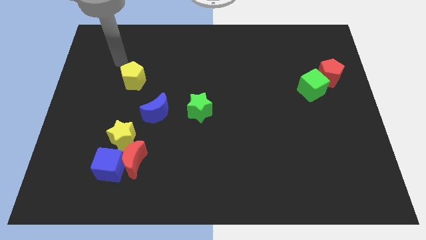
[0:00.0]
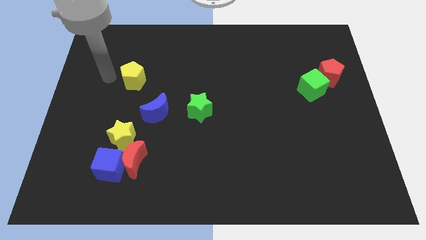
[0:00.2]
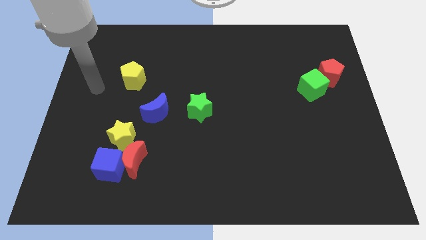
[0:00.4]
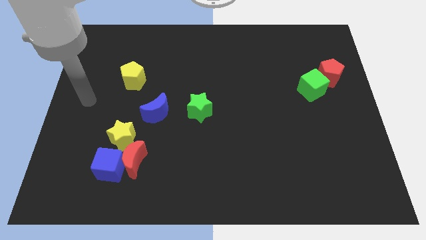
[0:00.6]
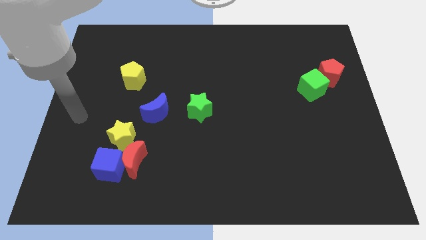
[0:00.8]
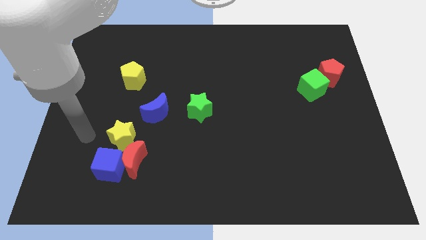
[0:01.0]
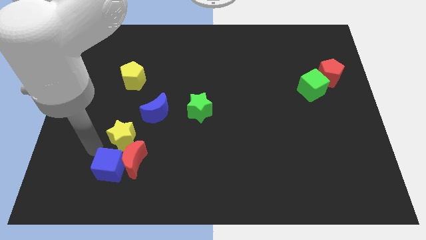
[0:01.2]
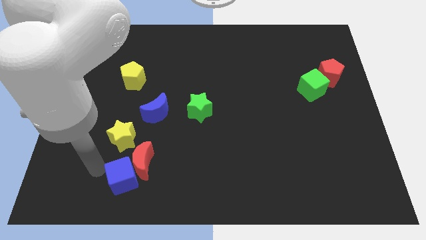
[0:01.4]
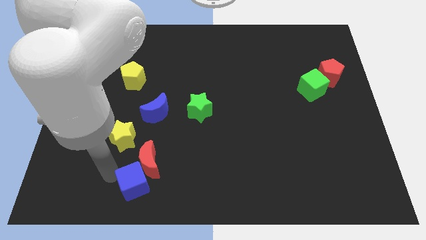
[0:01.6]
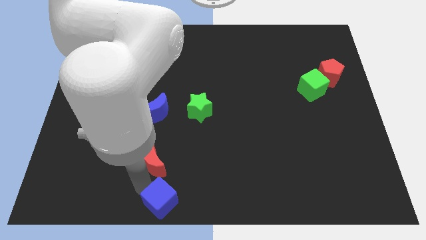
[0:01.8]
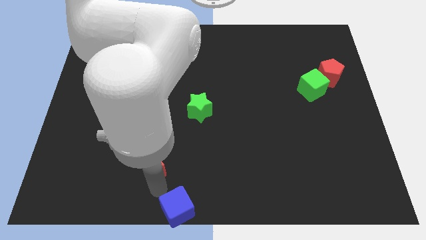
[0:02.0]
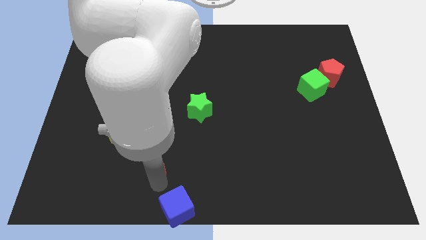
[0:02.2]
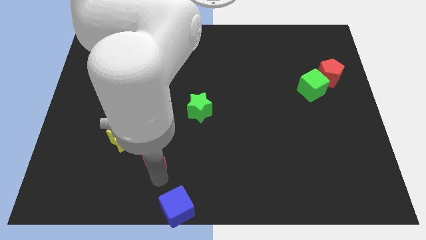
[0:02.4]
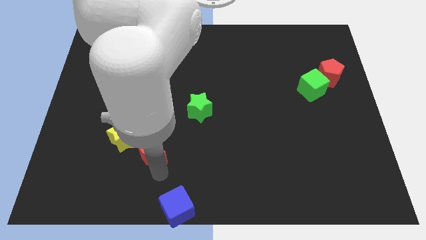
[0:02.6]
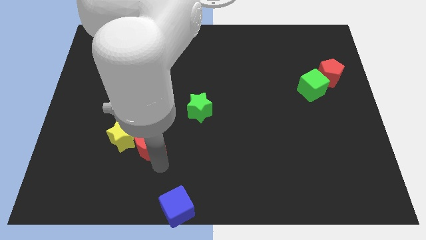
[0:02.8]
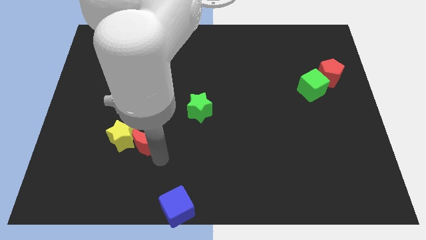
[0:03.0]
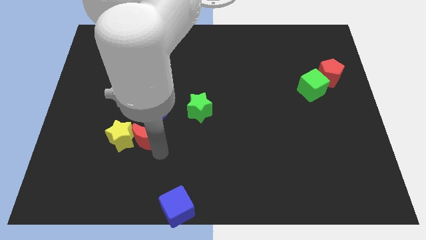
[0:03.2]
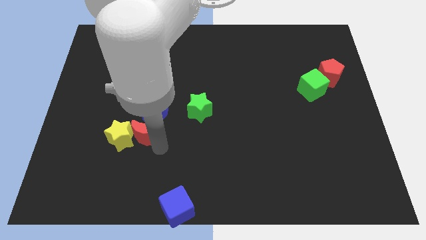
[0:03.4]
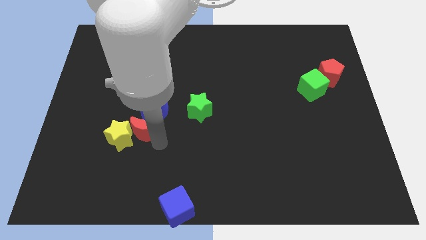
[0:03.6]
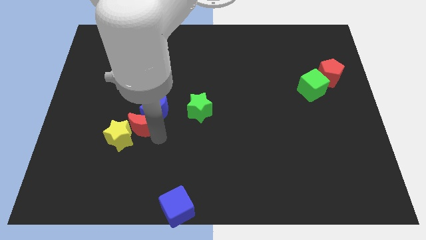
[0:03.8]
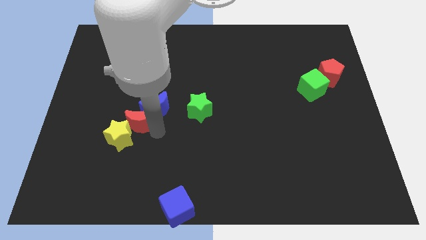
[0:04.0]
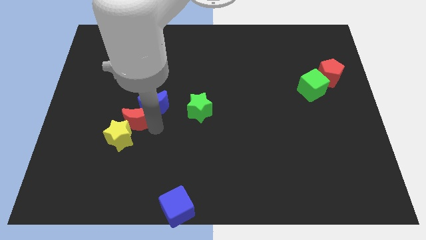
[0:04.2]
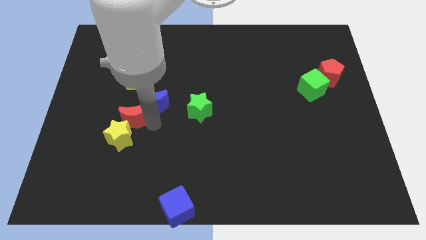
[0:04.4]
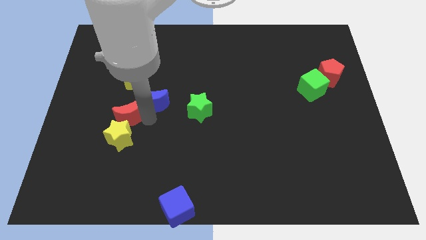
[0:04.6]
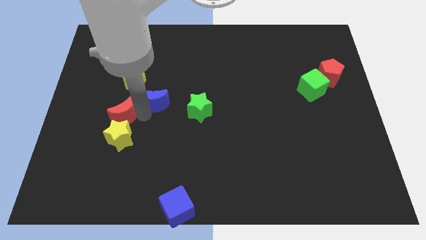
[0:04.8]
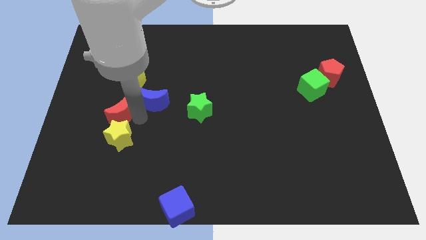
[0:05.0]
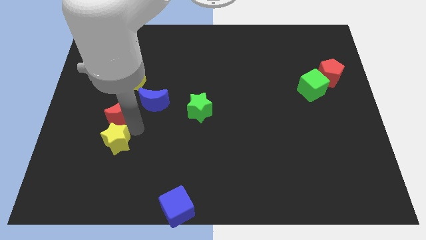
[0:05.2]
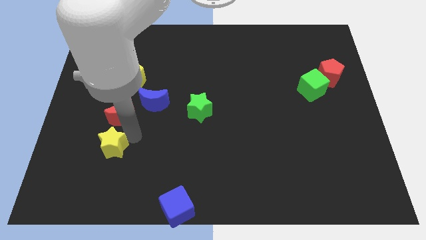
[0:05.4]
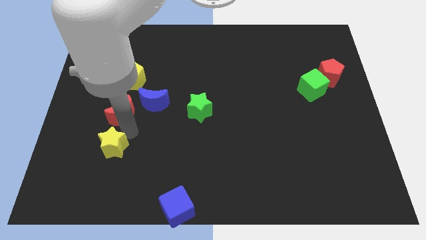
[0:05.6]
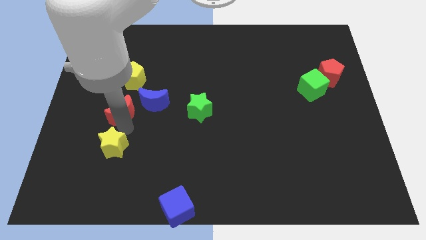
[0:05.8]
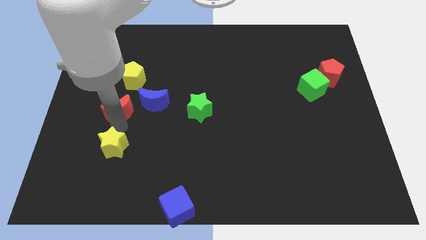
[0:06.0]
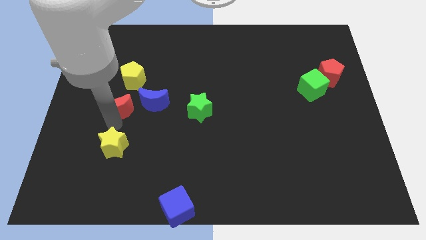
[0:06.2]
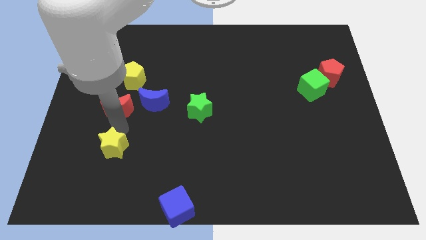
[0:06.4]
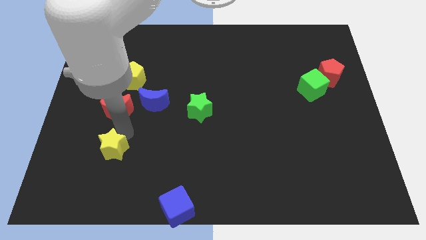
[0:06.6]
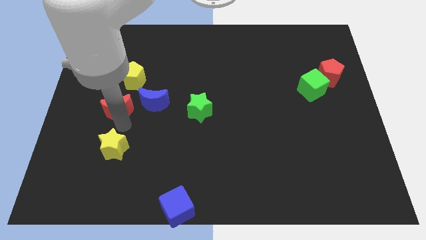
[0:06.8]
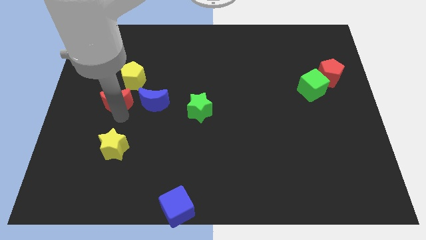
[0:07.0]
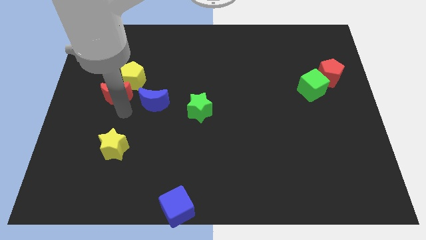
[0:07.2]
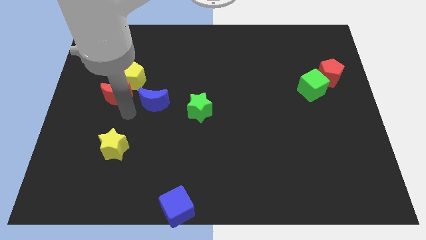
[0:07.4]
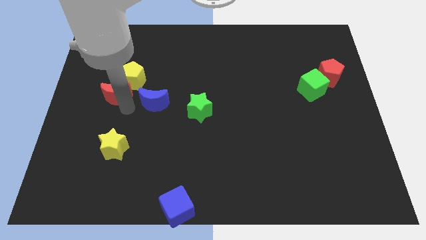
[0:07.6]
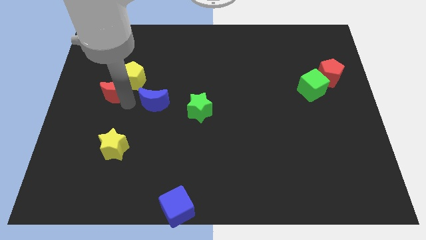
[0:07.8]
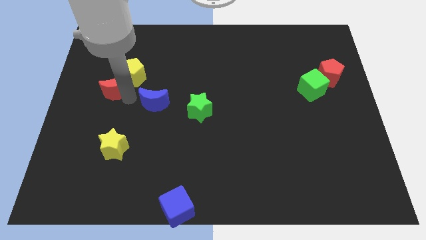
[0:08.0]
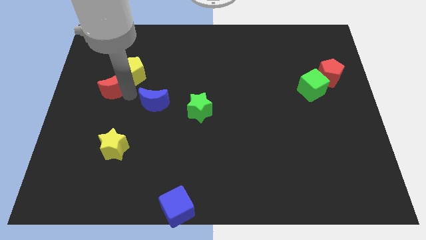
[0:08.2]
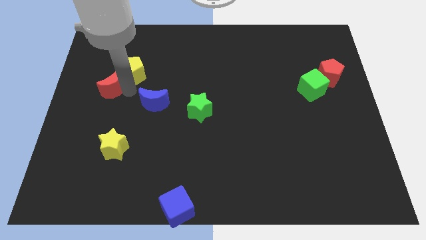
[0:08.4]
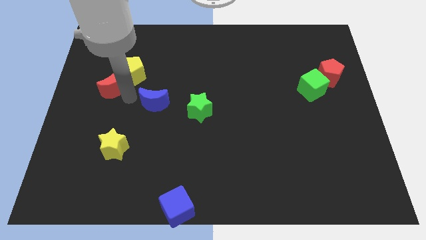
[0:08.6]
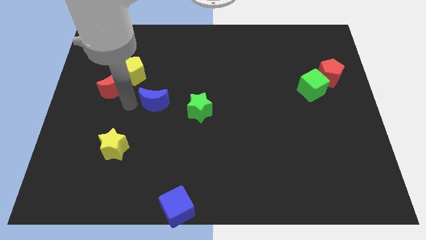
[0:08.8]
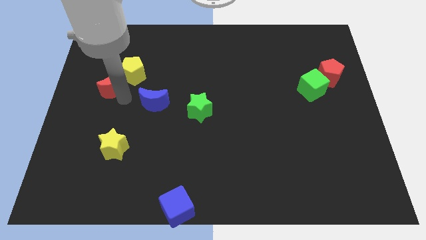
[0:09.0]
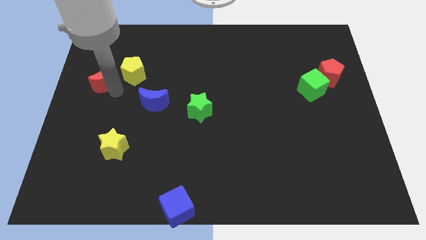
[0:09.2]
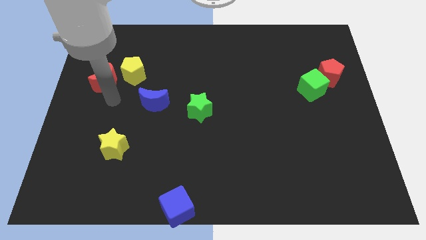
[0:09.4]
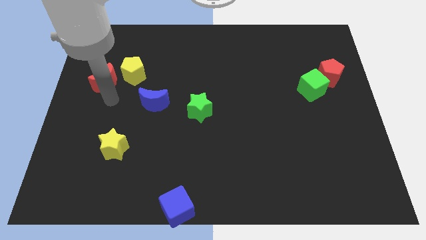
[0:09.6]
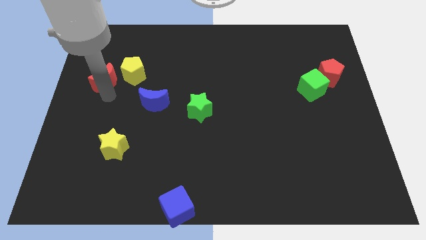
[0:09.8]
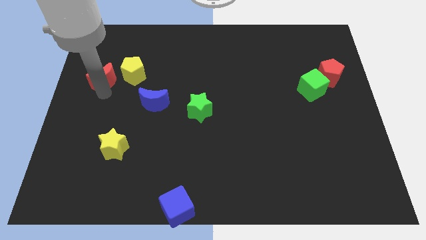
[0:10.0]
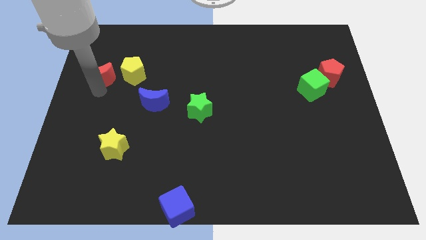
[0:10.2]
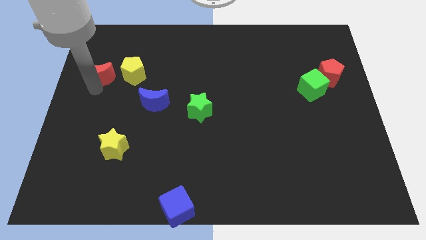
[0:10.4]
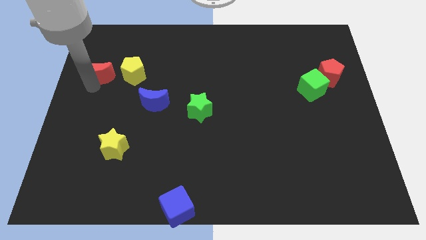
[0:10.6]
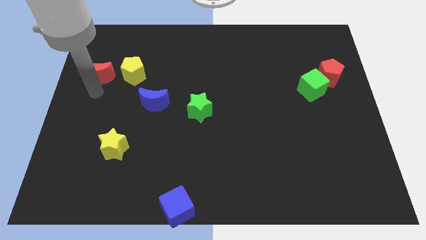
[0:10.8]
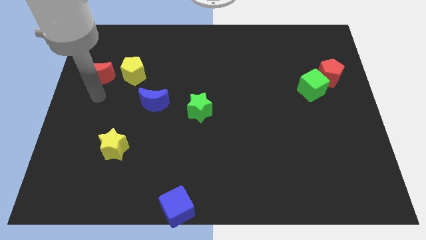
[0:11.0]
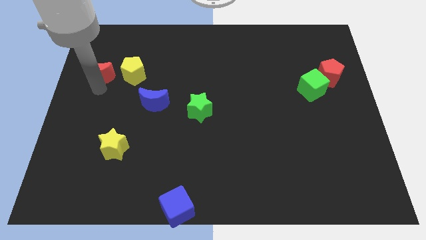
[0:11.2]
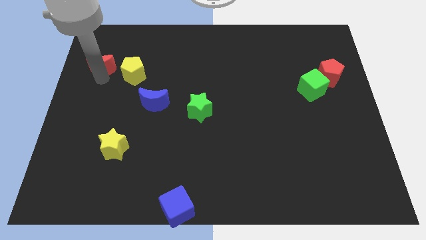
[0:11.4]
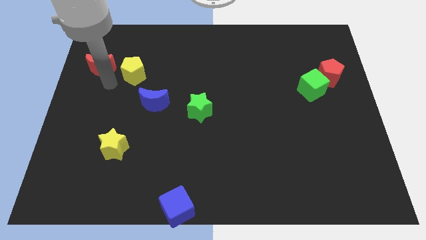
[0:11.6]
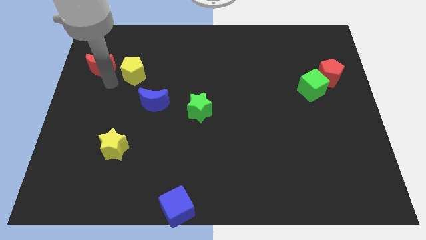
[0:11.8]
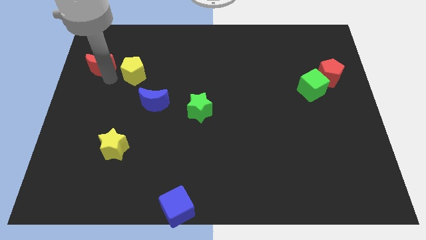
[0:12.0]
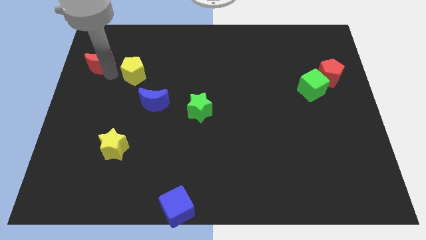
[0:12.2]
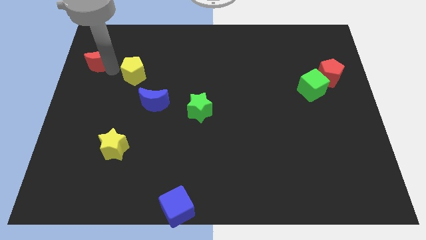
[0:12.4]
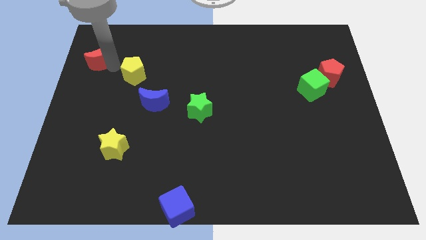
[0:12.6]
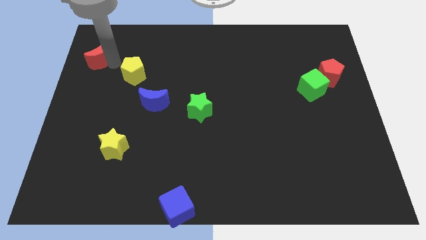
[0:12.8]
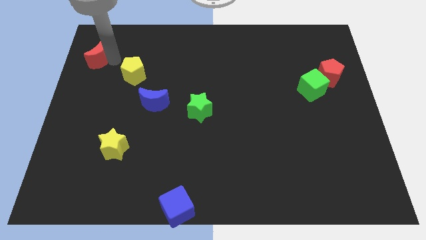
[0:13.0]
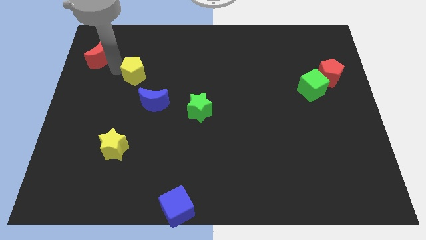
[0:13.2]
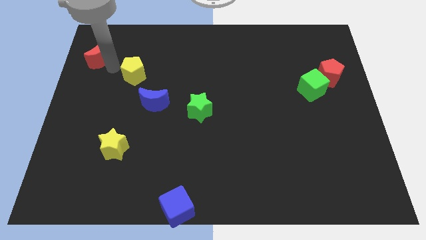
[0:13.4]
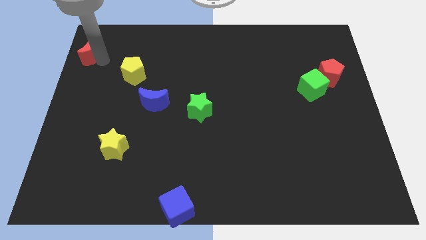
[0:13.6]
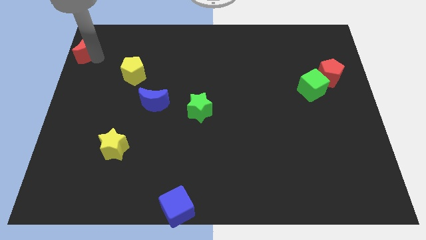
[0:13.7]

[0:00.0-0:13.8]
slide the red moon to the upper left corner
